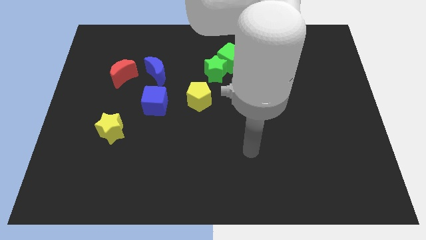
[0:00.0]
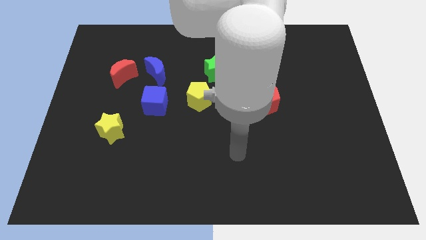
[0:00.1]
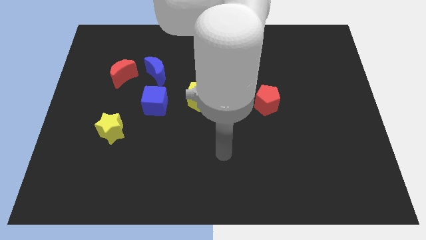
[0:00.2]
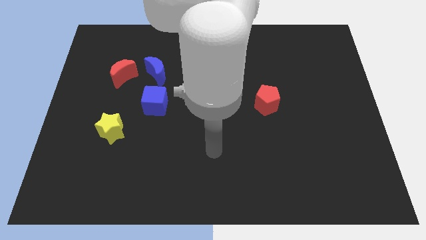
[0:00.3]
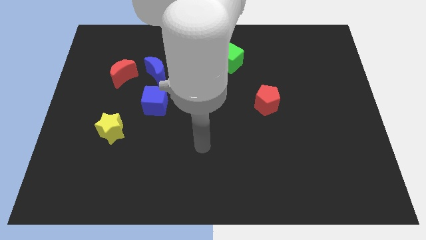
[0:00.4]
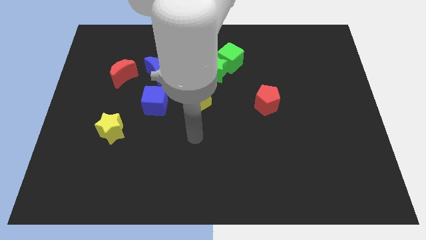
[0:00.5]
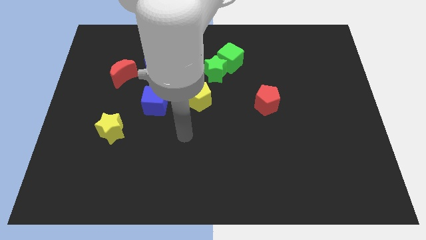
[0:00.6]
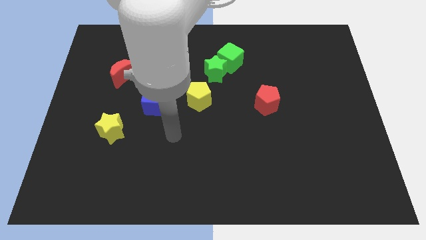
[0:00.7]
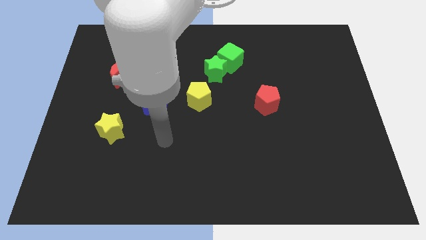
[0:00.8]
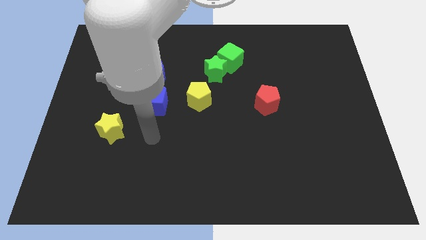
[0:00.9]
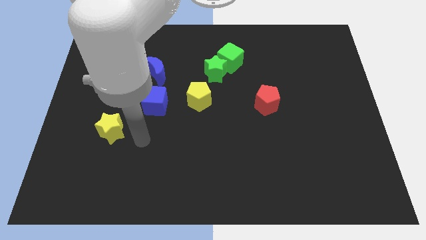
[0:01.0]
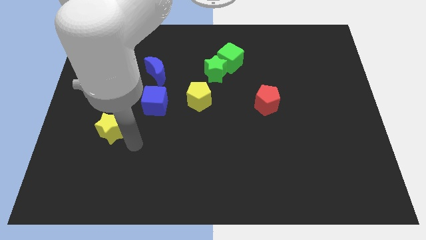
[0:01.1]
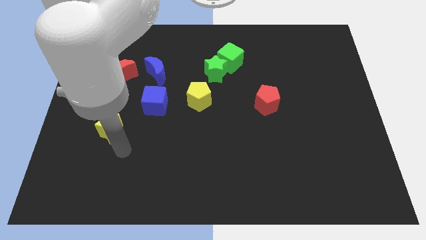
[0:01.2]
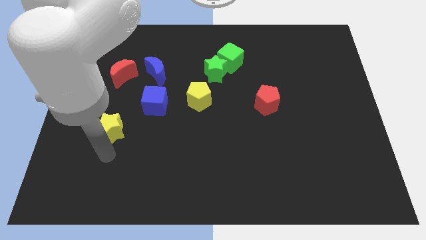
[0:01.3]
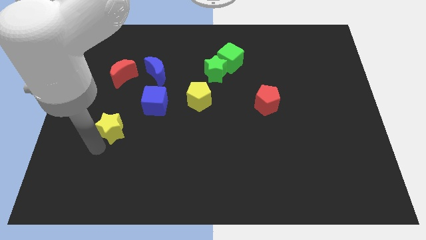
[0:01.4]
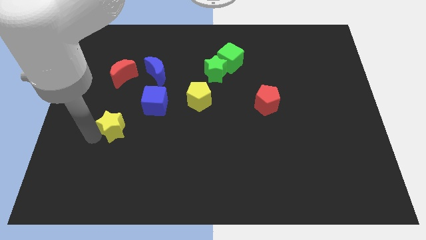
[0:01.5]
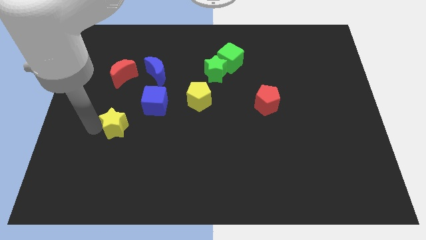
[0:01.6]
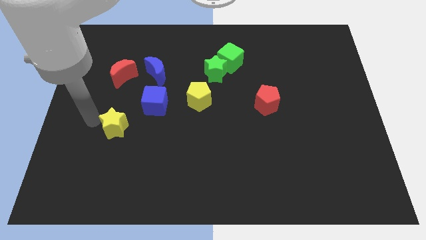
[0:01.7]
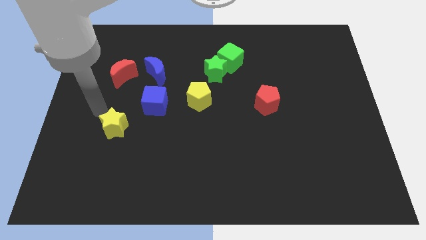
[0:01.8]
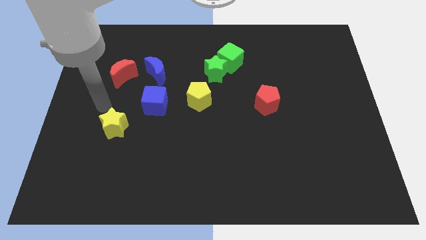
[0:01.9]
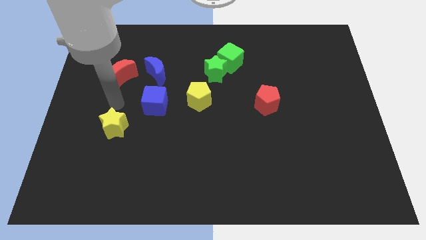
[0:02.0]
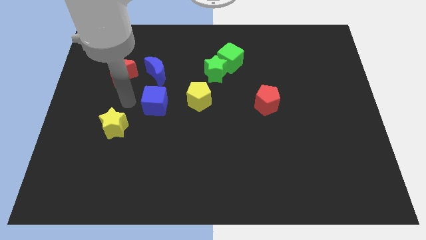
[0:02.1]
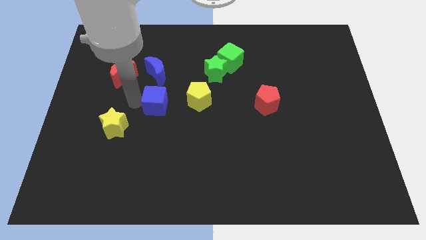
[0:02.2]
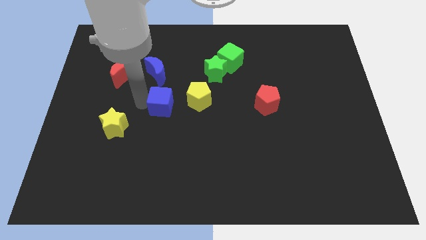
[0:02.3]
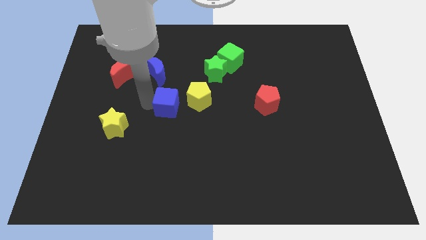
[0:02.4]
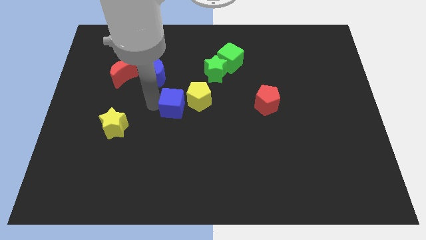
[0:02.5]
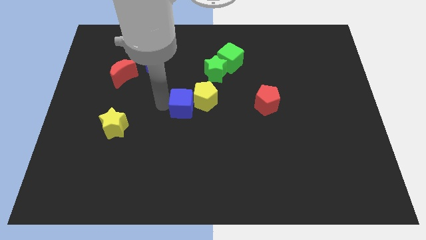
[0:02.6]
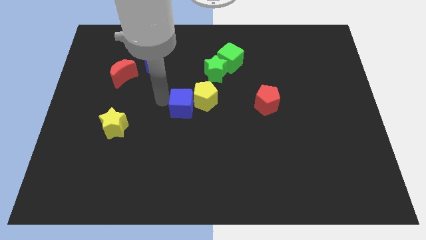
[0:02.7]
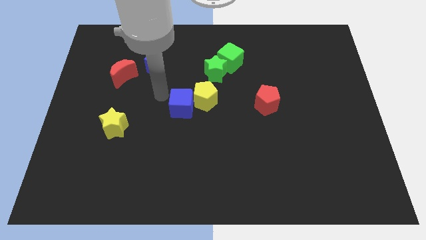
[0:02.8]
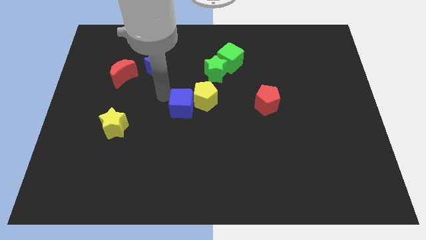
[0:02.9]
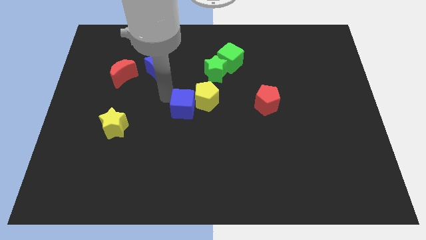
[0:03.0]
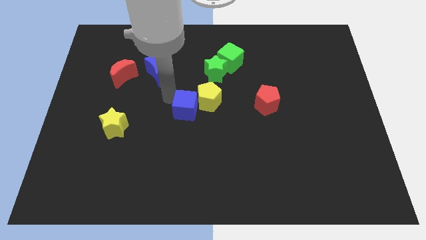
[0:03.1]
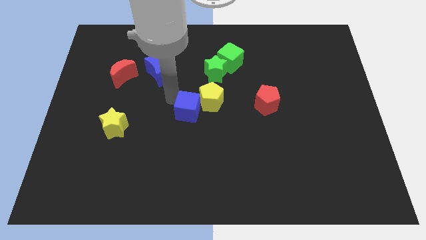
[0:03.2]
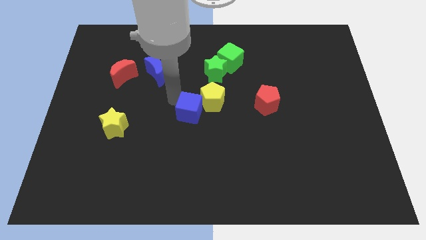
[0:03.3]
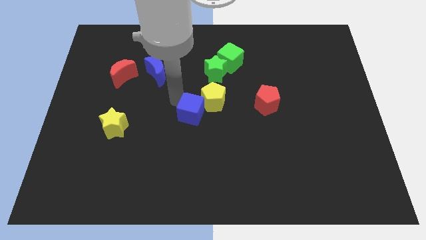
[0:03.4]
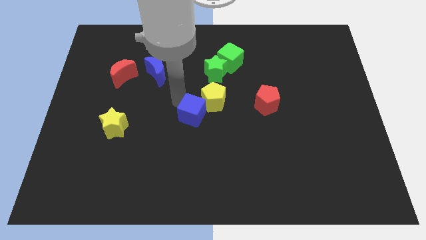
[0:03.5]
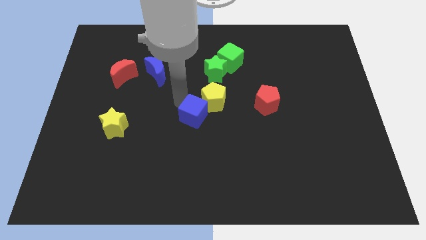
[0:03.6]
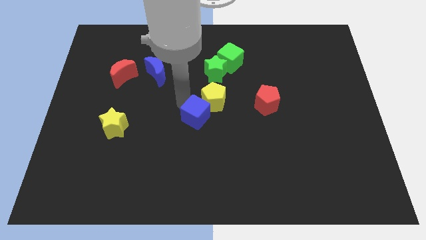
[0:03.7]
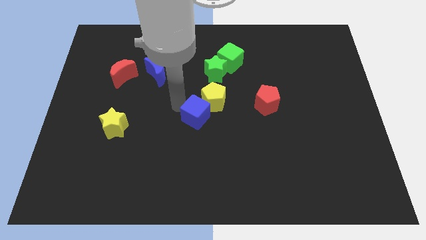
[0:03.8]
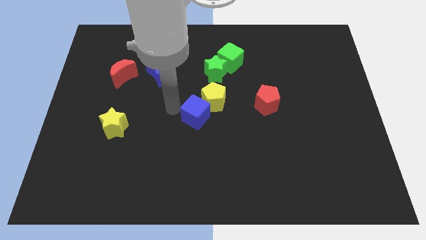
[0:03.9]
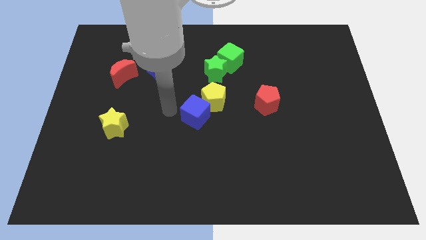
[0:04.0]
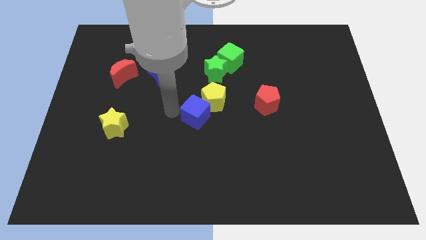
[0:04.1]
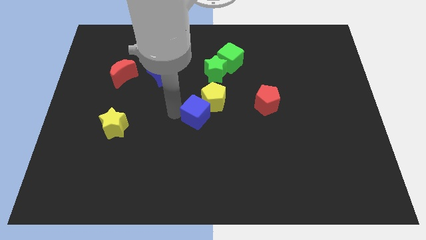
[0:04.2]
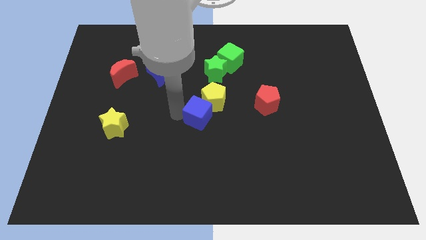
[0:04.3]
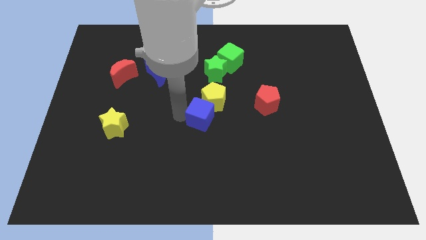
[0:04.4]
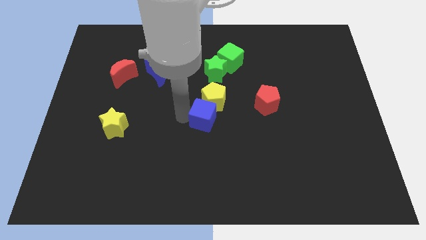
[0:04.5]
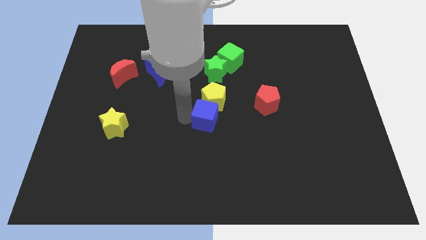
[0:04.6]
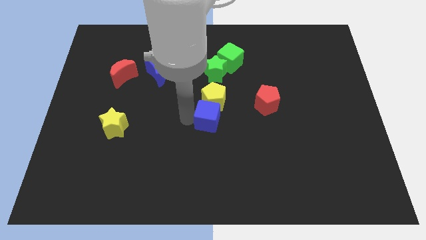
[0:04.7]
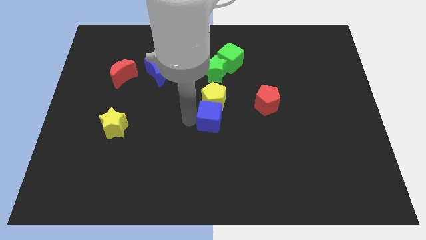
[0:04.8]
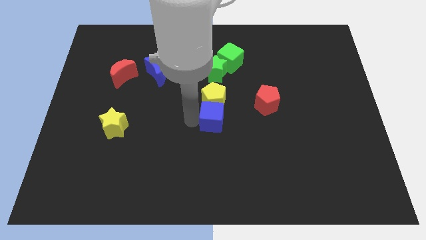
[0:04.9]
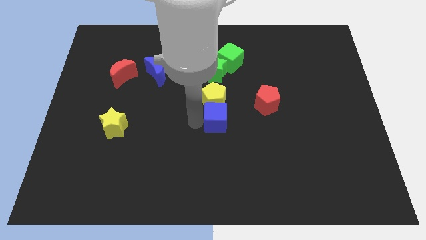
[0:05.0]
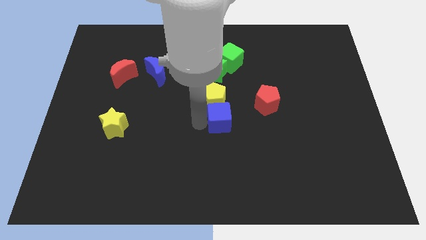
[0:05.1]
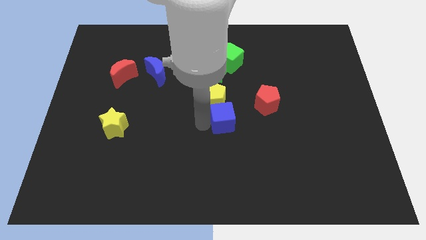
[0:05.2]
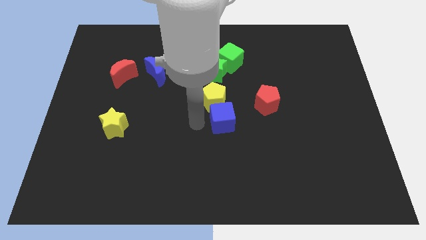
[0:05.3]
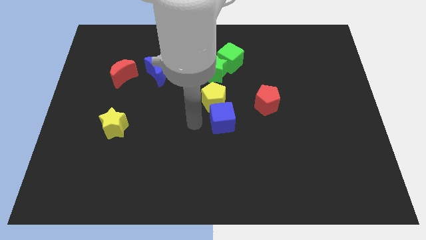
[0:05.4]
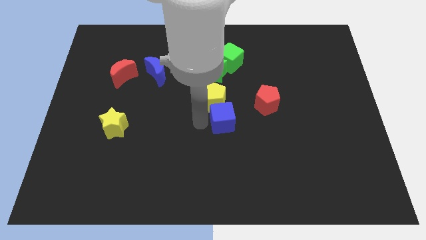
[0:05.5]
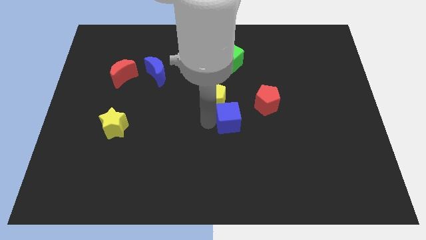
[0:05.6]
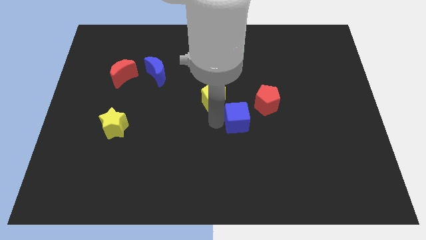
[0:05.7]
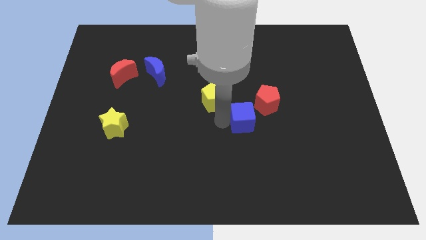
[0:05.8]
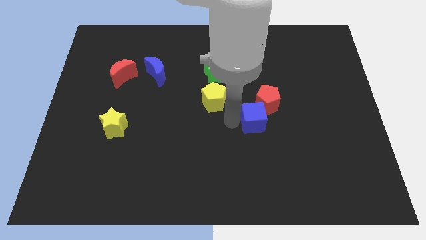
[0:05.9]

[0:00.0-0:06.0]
move the blue cube right

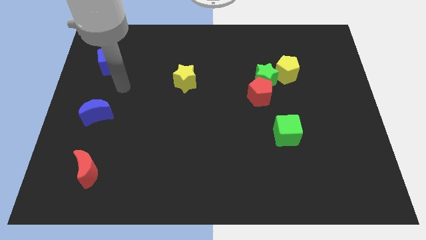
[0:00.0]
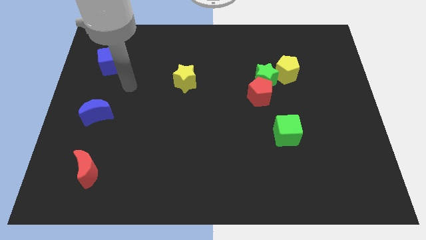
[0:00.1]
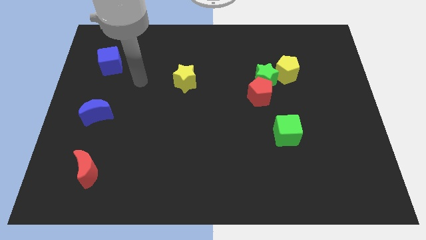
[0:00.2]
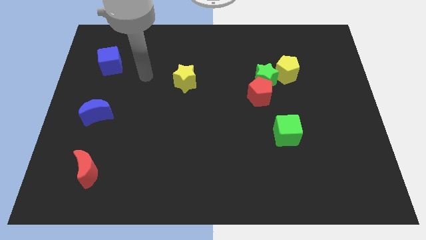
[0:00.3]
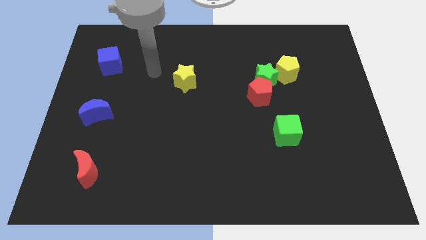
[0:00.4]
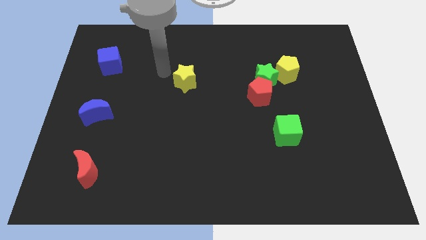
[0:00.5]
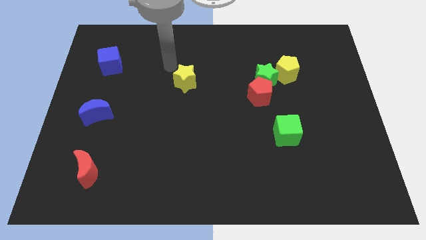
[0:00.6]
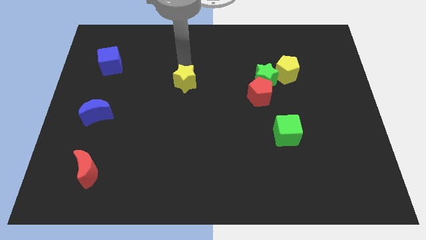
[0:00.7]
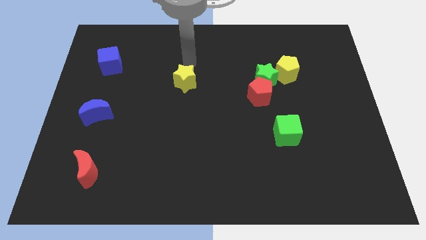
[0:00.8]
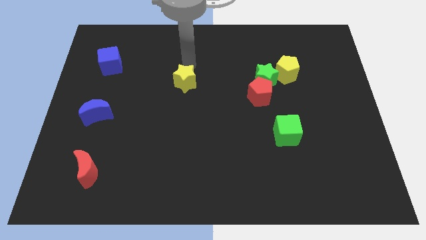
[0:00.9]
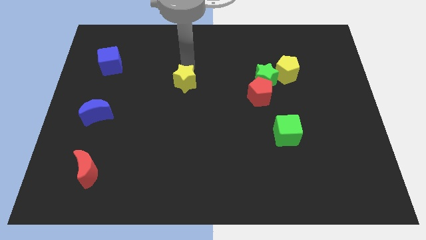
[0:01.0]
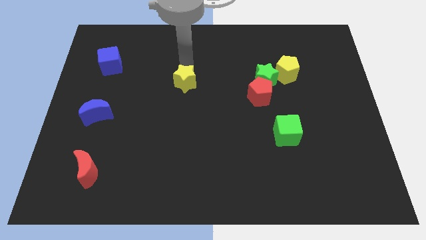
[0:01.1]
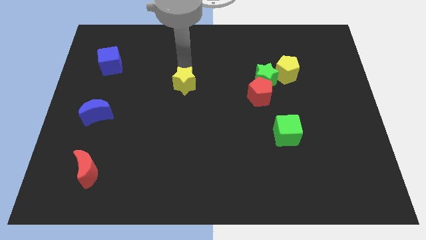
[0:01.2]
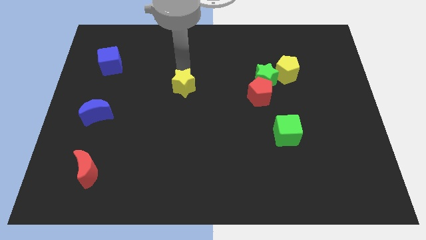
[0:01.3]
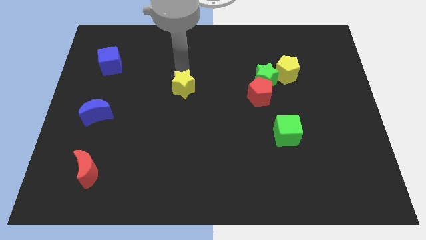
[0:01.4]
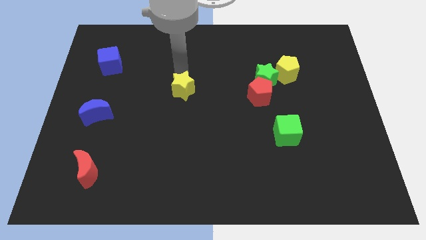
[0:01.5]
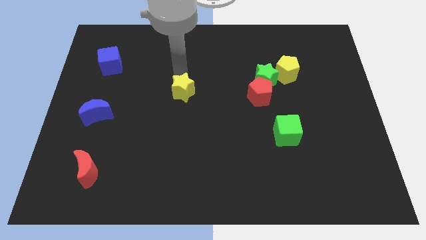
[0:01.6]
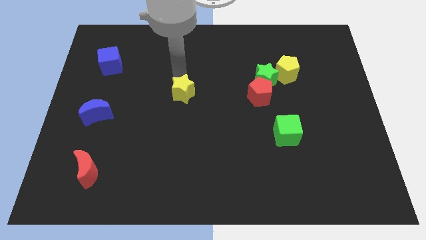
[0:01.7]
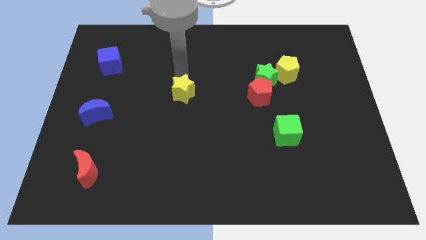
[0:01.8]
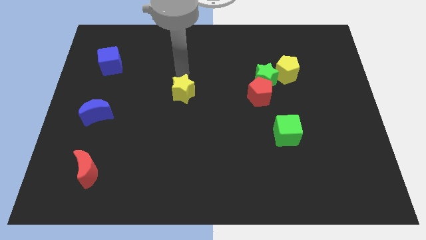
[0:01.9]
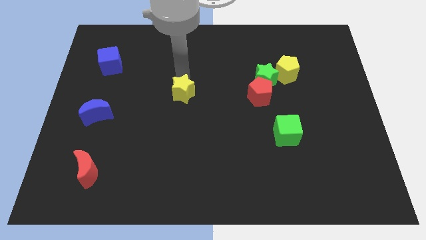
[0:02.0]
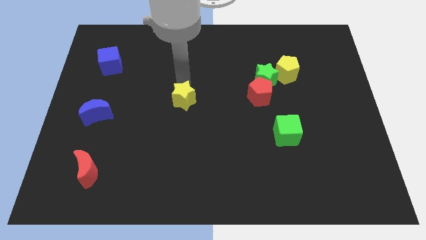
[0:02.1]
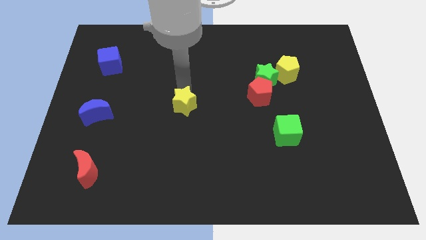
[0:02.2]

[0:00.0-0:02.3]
slide the yellow star a little downwards
